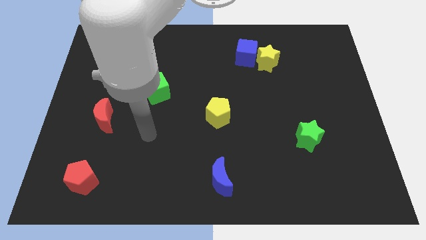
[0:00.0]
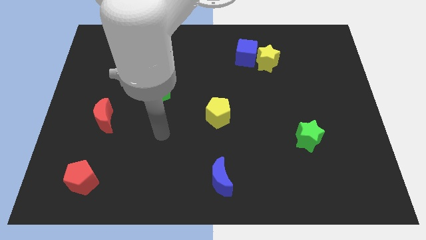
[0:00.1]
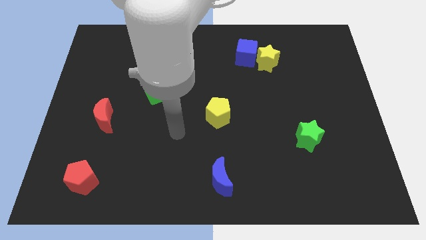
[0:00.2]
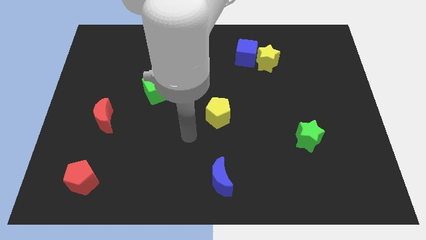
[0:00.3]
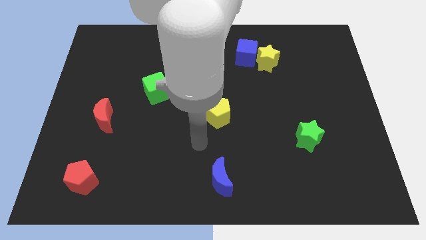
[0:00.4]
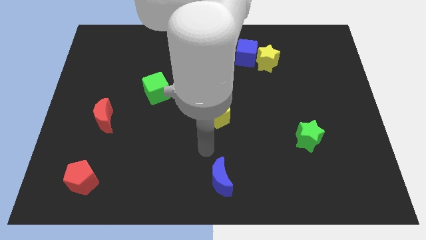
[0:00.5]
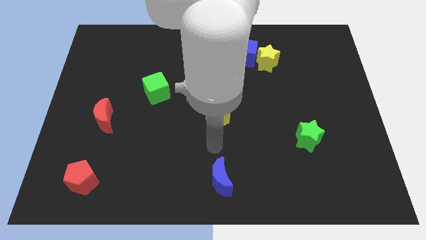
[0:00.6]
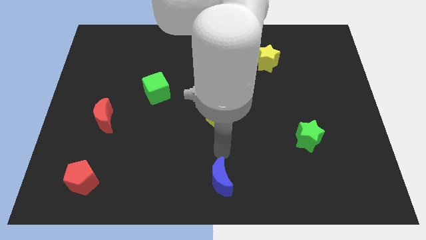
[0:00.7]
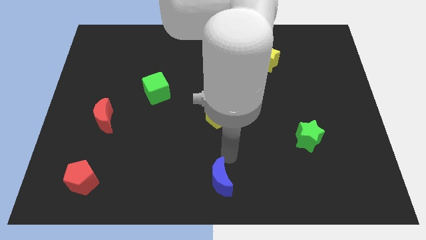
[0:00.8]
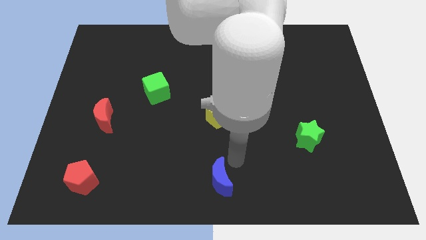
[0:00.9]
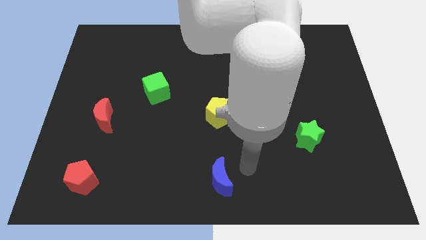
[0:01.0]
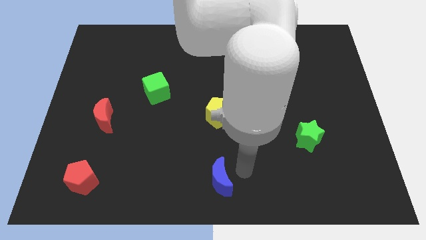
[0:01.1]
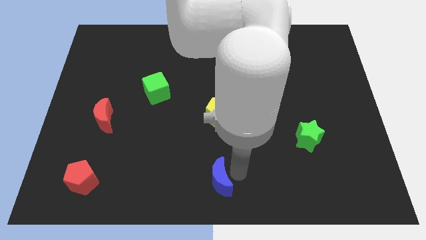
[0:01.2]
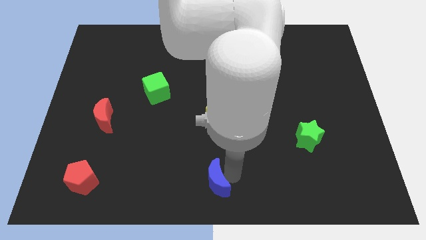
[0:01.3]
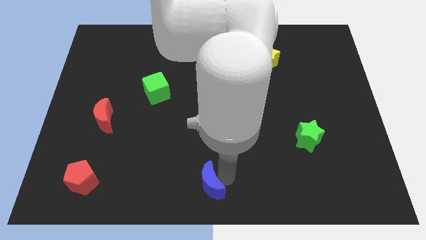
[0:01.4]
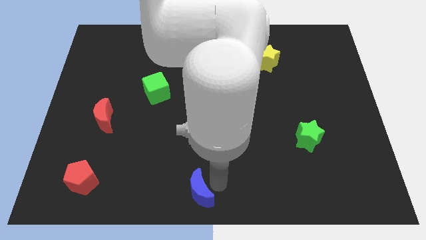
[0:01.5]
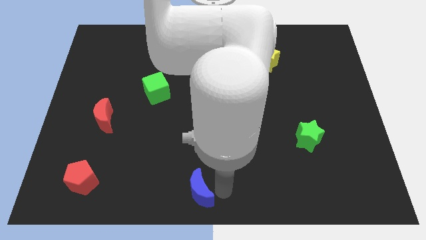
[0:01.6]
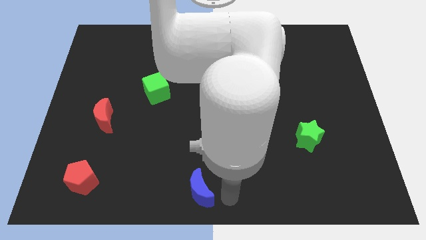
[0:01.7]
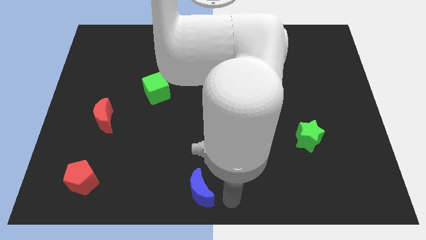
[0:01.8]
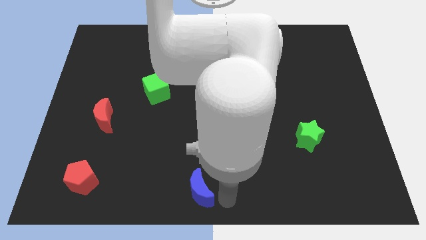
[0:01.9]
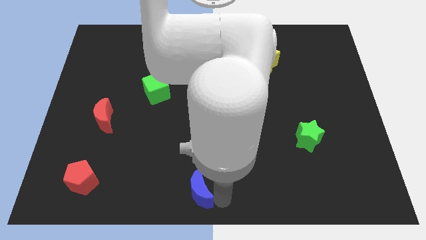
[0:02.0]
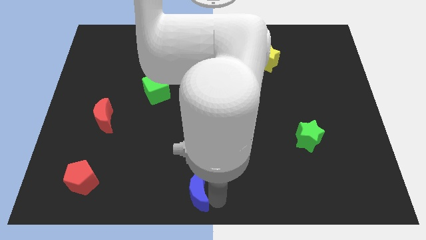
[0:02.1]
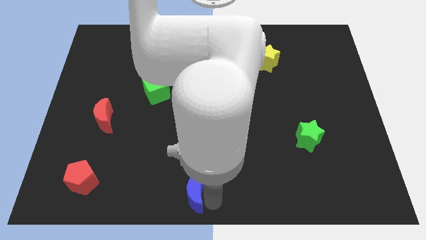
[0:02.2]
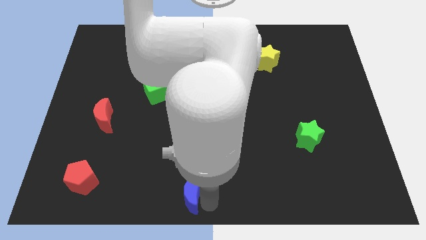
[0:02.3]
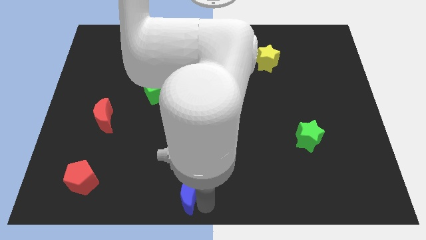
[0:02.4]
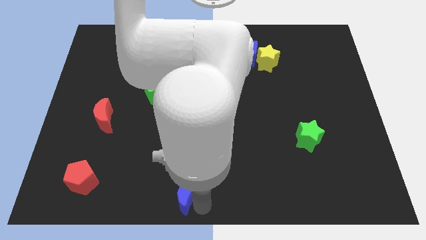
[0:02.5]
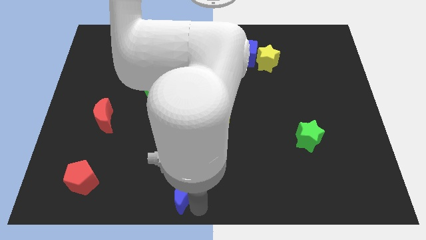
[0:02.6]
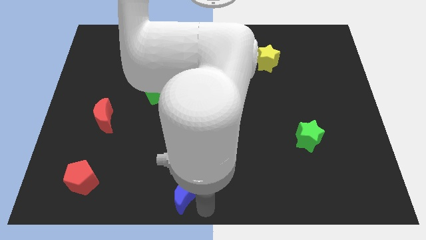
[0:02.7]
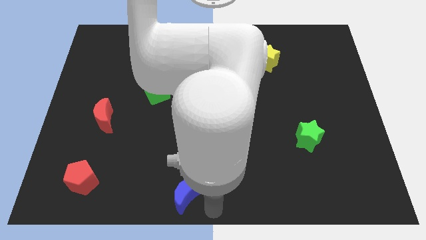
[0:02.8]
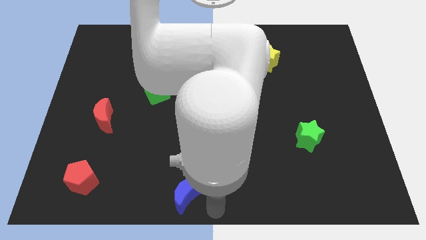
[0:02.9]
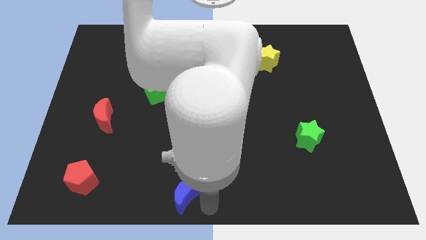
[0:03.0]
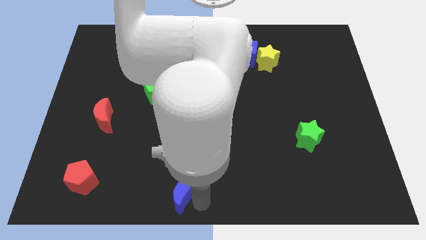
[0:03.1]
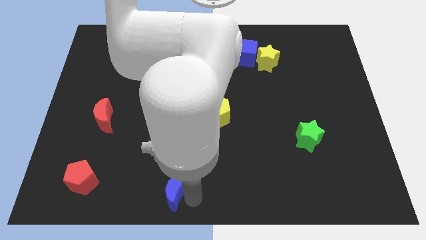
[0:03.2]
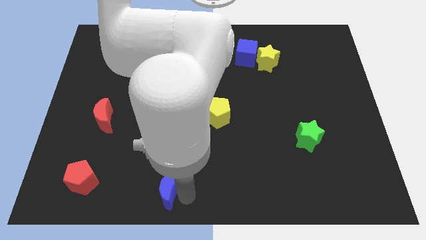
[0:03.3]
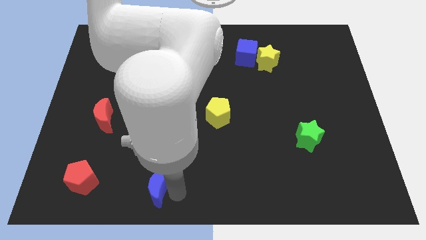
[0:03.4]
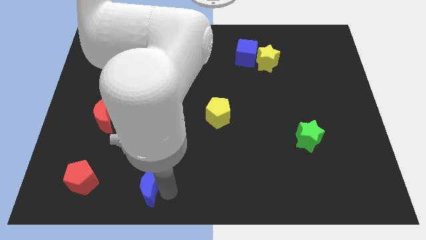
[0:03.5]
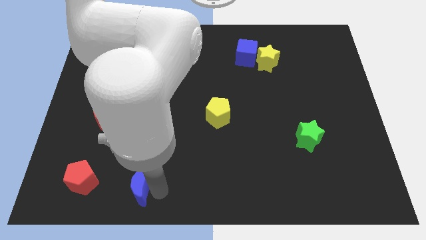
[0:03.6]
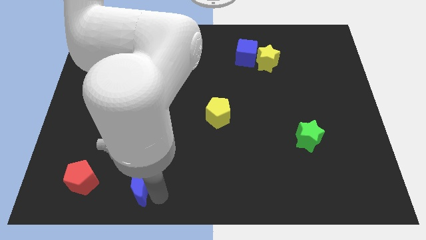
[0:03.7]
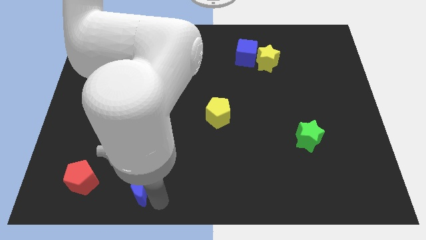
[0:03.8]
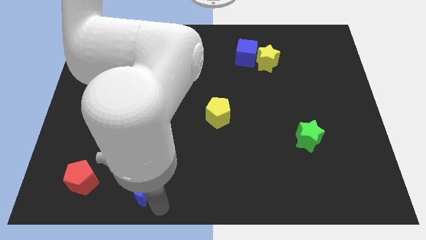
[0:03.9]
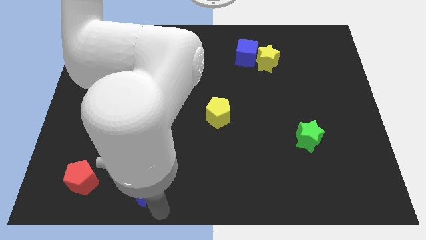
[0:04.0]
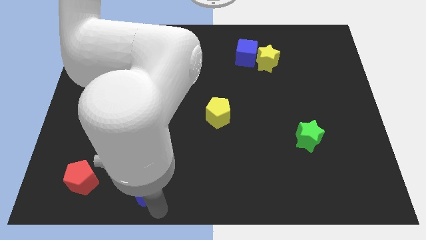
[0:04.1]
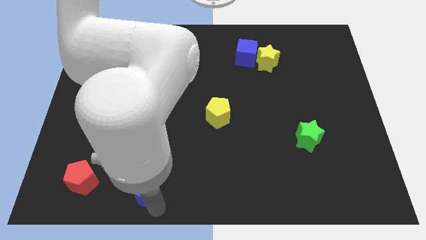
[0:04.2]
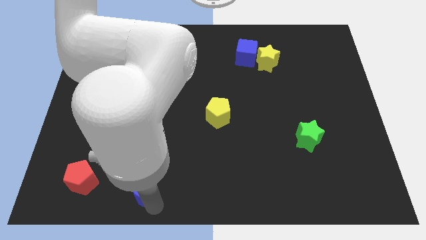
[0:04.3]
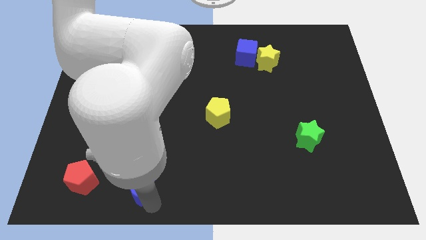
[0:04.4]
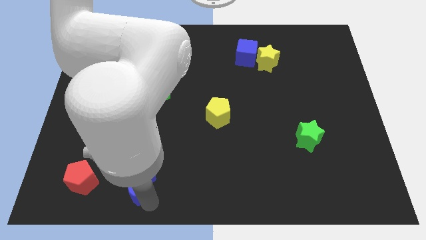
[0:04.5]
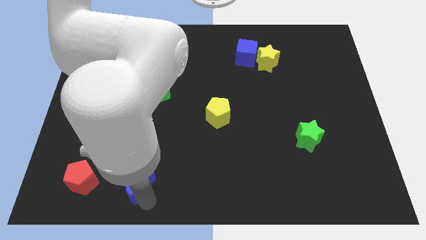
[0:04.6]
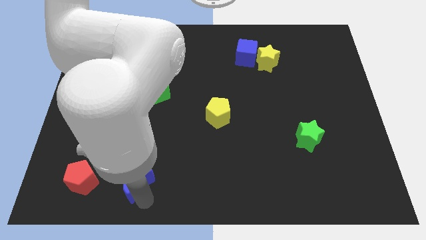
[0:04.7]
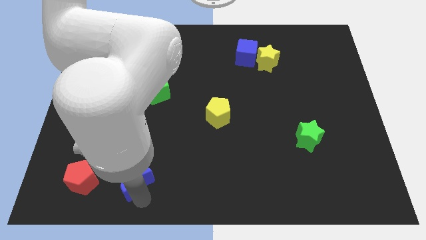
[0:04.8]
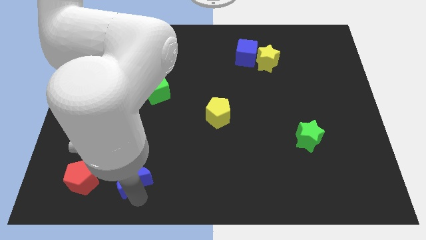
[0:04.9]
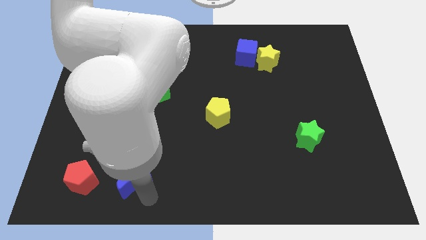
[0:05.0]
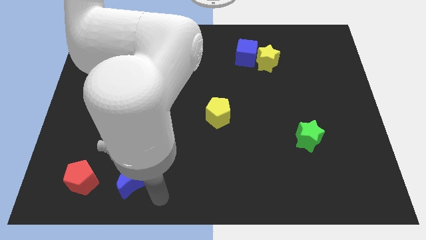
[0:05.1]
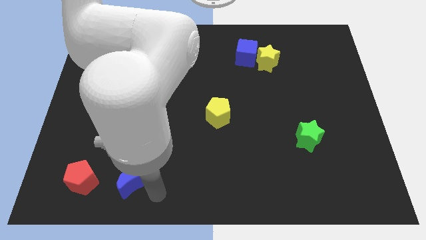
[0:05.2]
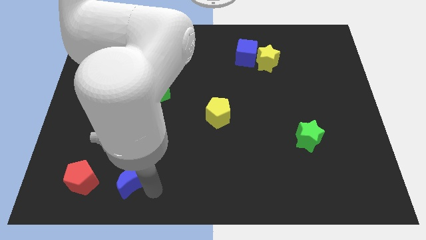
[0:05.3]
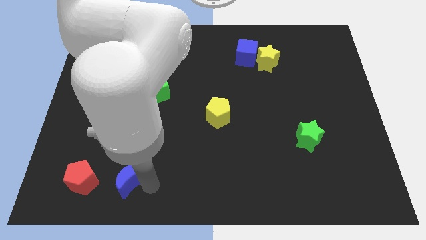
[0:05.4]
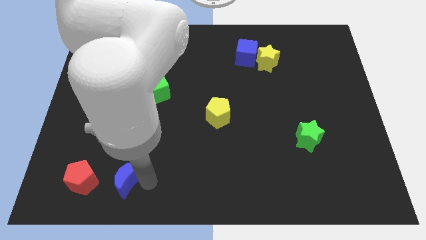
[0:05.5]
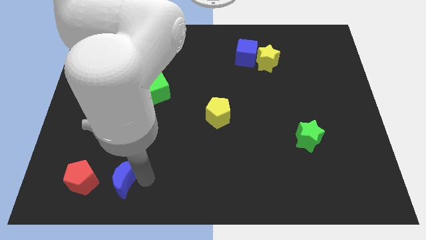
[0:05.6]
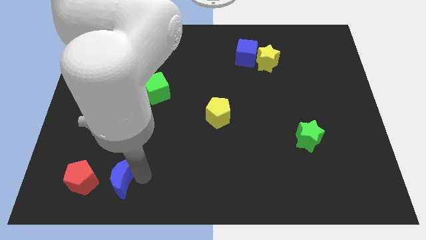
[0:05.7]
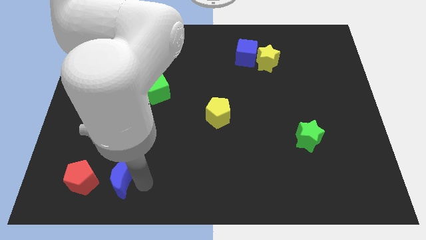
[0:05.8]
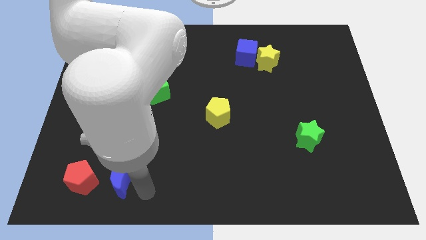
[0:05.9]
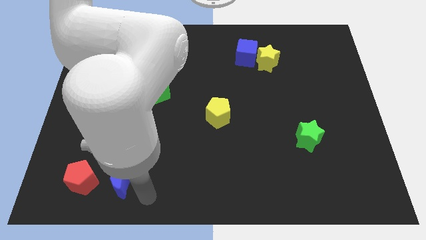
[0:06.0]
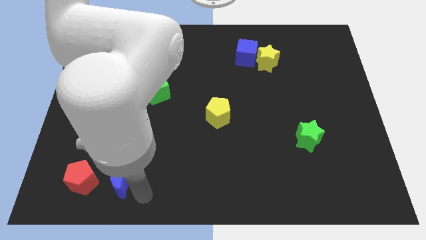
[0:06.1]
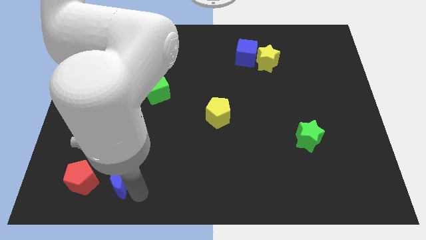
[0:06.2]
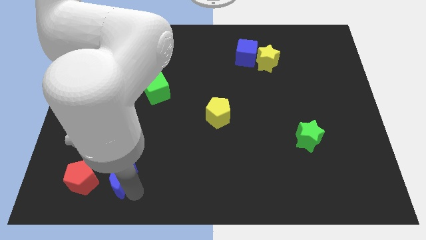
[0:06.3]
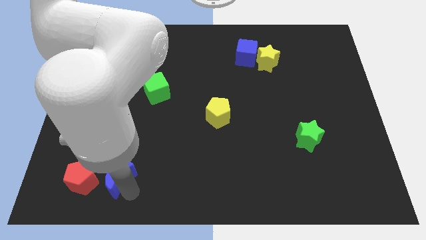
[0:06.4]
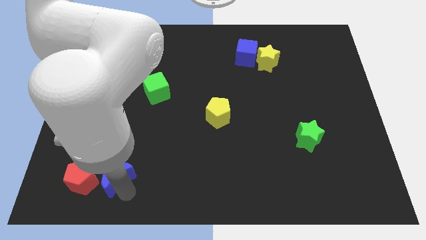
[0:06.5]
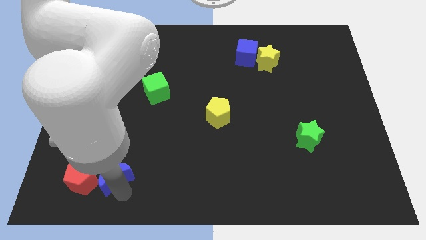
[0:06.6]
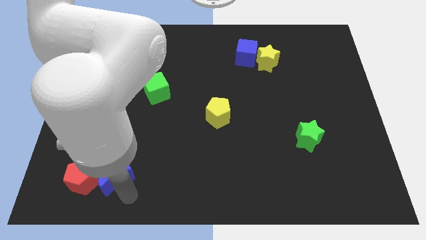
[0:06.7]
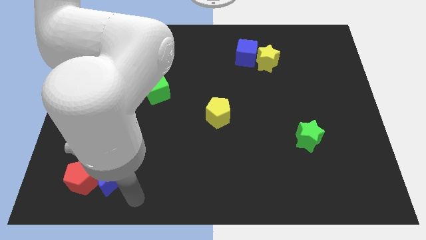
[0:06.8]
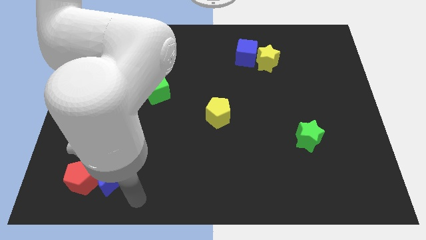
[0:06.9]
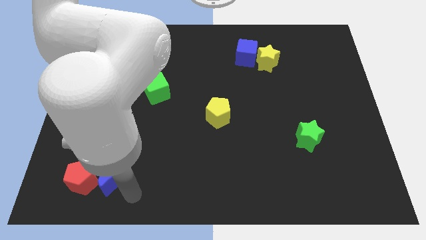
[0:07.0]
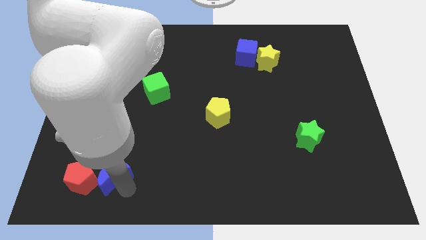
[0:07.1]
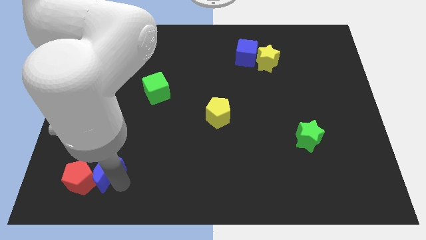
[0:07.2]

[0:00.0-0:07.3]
put the blue moon to the bottom side of the red moon

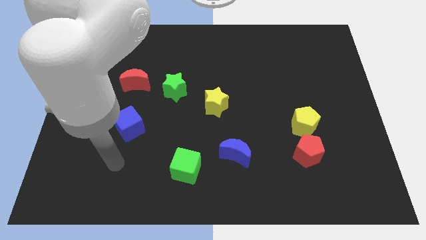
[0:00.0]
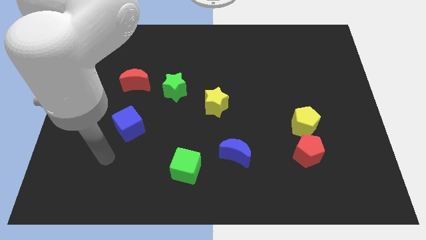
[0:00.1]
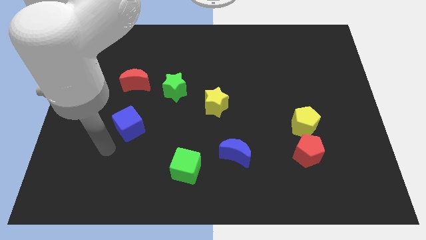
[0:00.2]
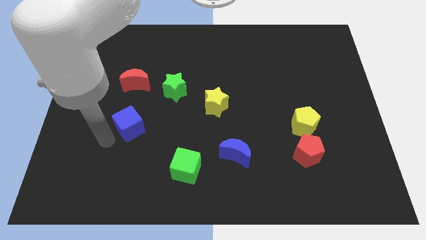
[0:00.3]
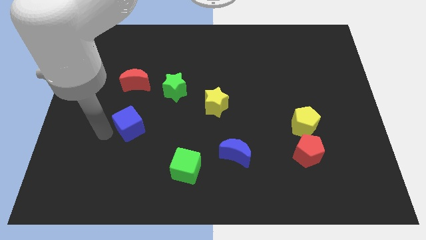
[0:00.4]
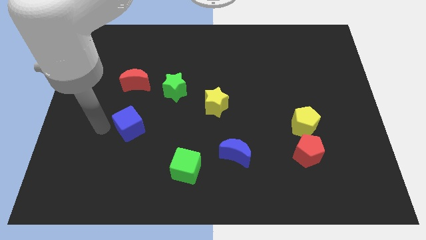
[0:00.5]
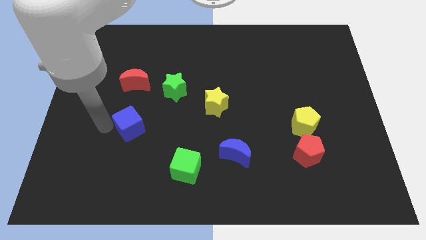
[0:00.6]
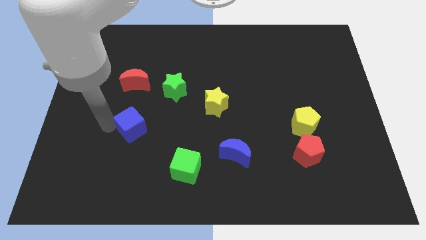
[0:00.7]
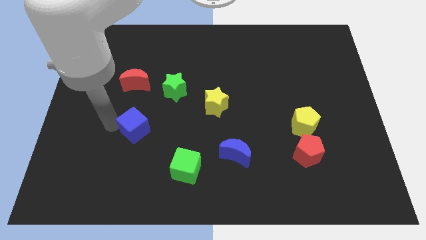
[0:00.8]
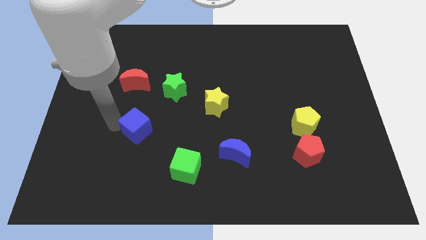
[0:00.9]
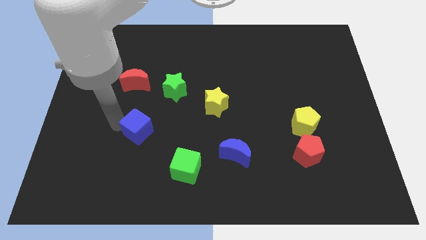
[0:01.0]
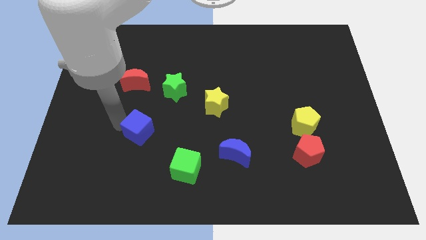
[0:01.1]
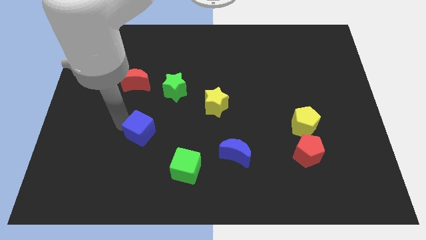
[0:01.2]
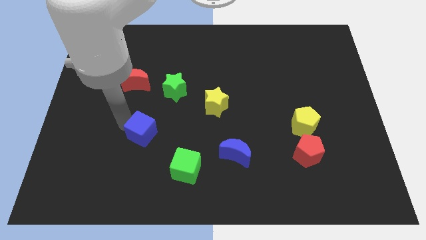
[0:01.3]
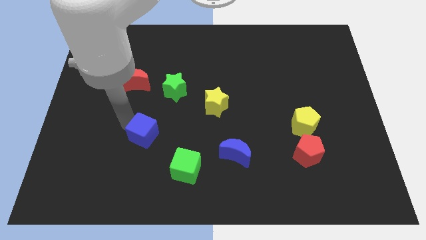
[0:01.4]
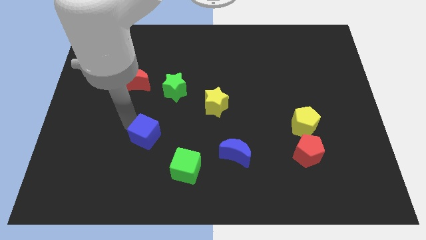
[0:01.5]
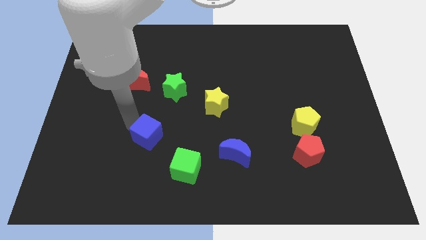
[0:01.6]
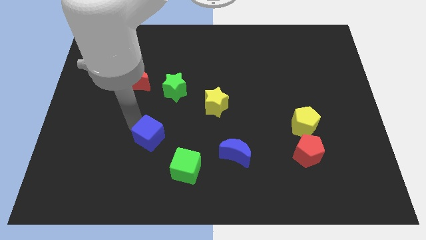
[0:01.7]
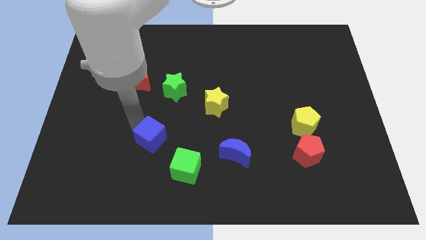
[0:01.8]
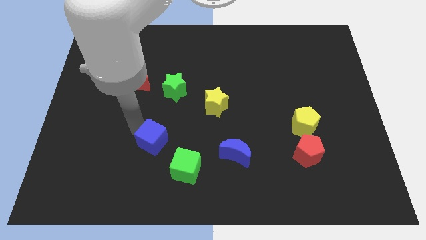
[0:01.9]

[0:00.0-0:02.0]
move the blue cube to the bottom side of the green star
